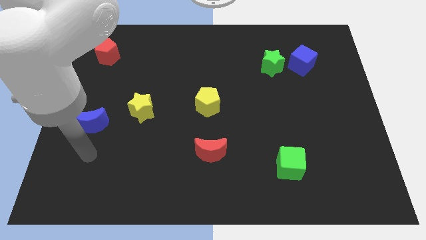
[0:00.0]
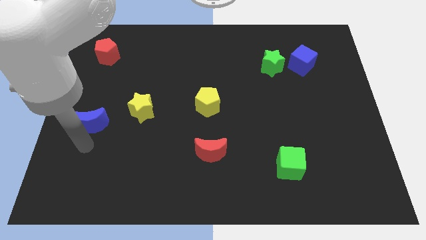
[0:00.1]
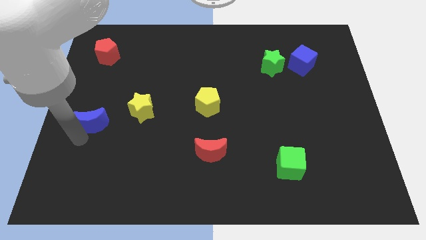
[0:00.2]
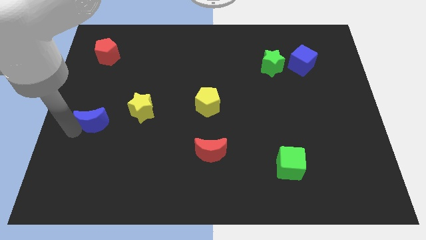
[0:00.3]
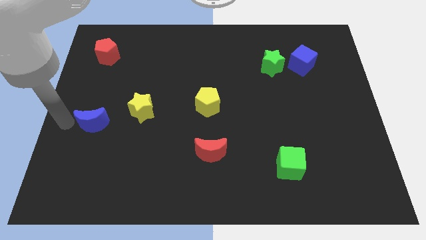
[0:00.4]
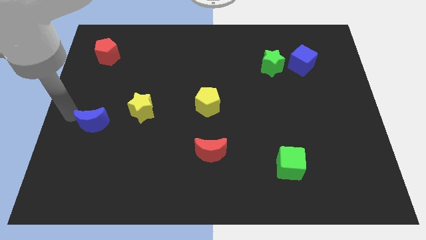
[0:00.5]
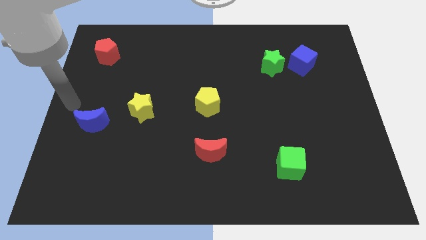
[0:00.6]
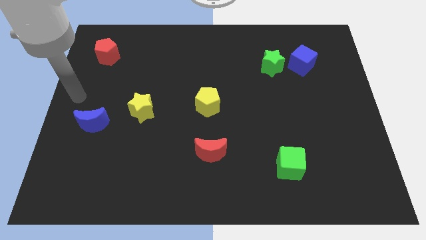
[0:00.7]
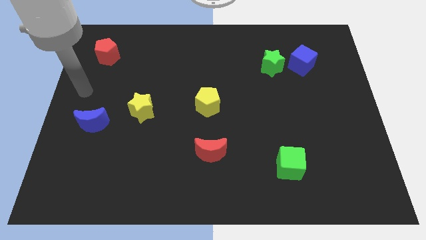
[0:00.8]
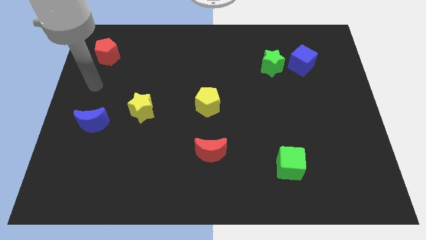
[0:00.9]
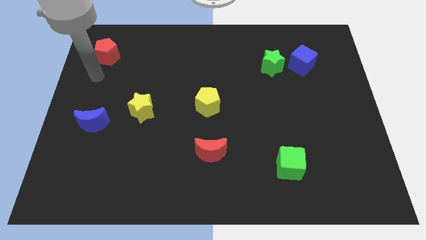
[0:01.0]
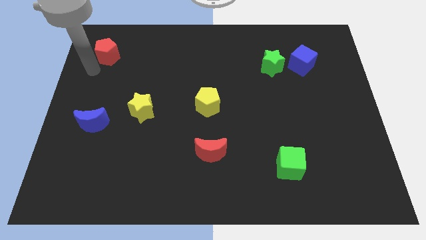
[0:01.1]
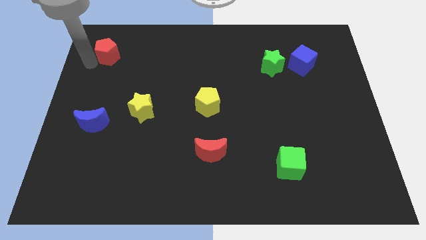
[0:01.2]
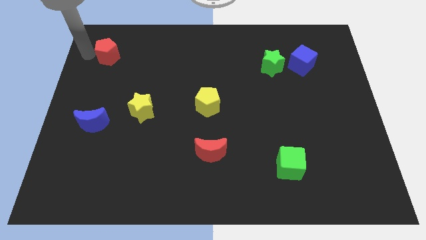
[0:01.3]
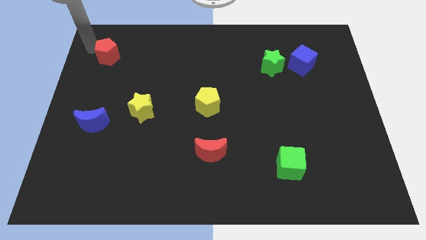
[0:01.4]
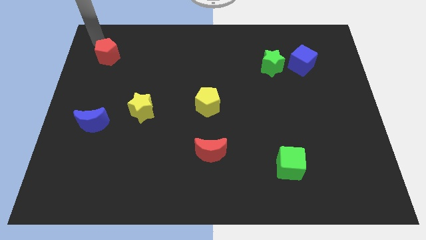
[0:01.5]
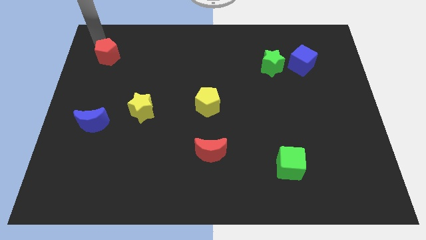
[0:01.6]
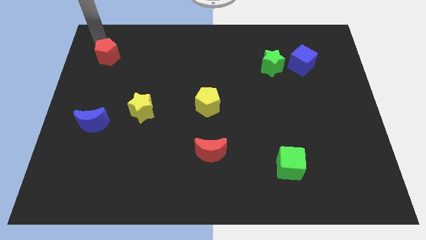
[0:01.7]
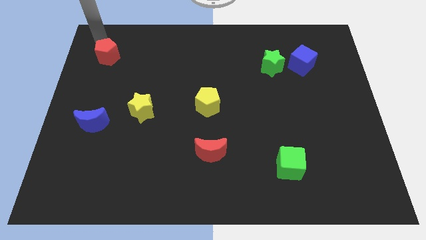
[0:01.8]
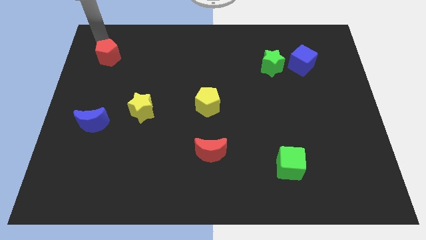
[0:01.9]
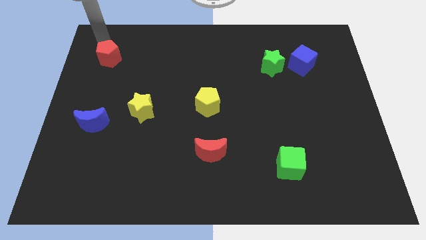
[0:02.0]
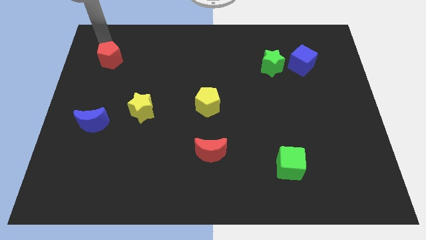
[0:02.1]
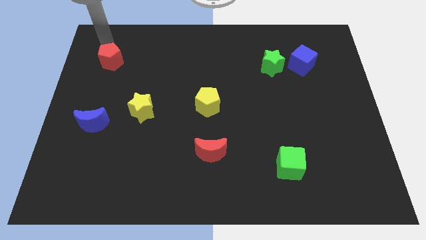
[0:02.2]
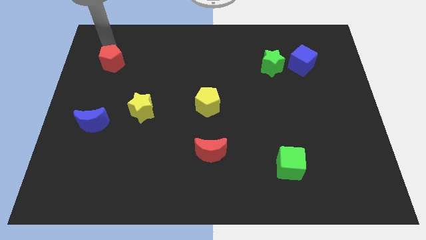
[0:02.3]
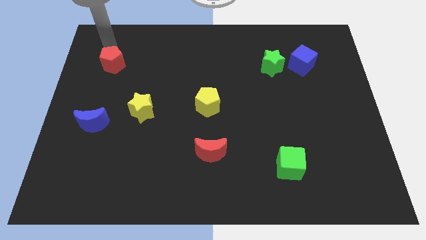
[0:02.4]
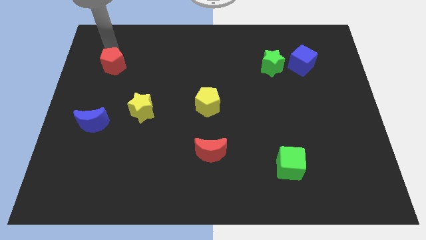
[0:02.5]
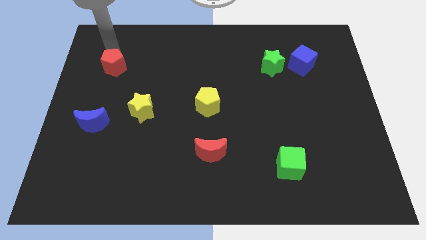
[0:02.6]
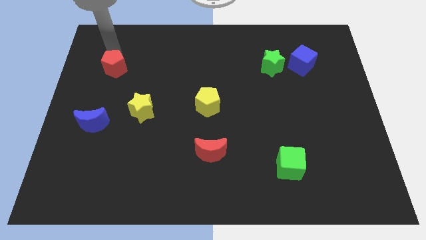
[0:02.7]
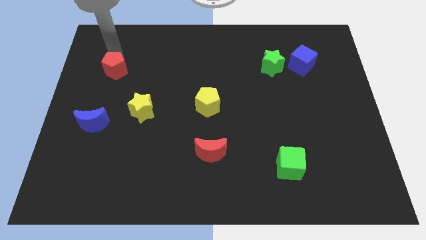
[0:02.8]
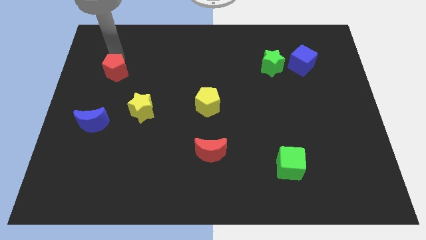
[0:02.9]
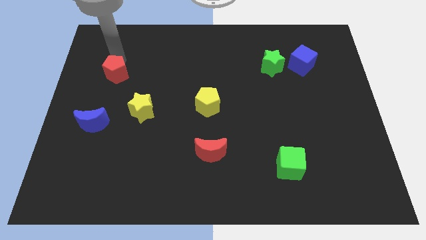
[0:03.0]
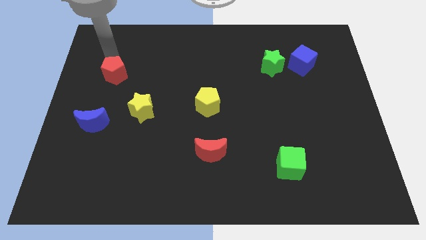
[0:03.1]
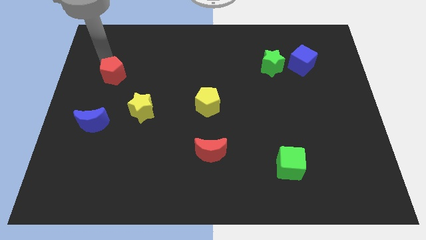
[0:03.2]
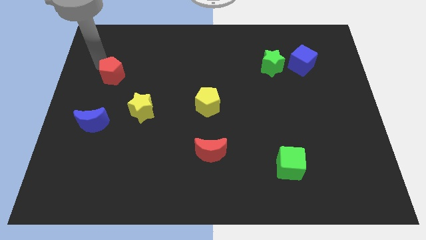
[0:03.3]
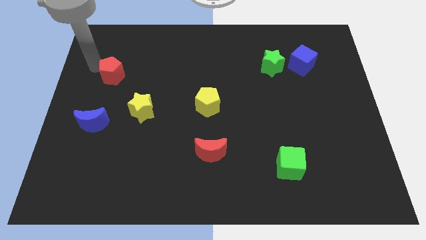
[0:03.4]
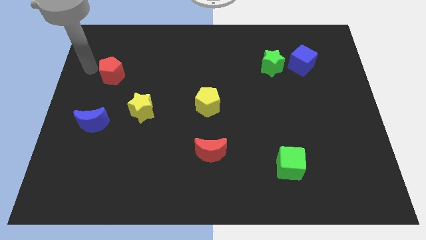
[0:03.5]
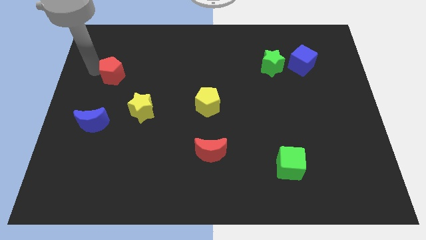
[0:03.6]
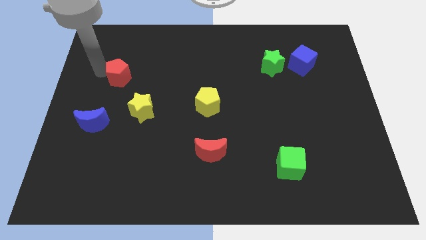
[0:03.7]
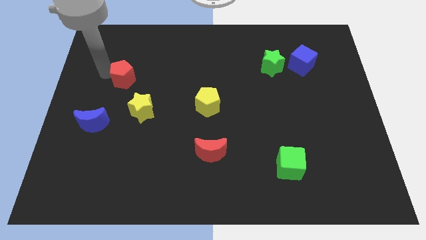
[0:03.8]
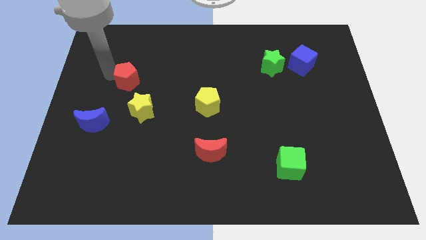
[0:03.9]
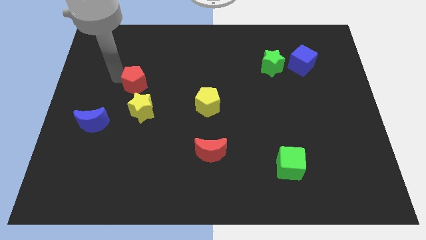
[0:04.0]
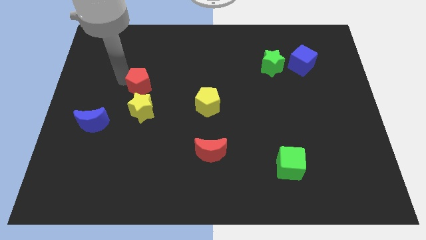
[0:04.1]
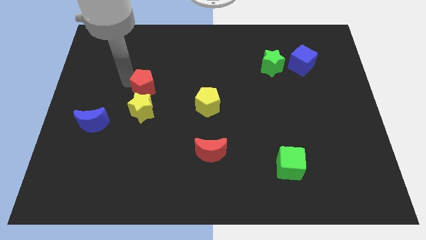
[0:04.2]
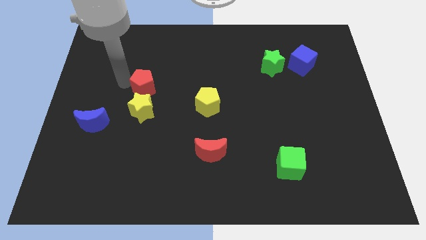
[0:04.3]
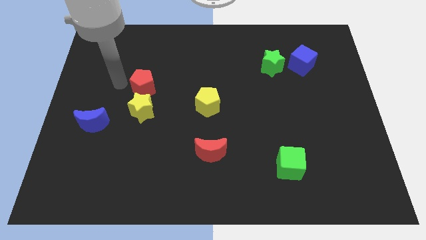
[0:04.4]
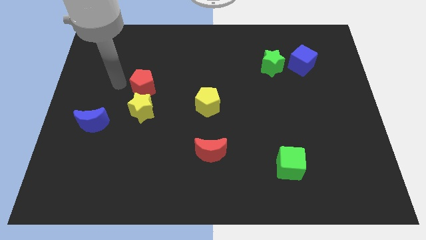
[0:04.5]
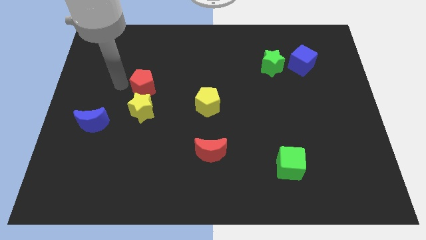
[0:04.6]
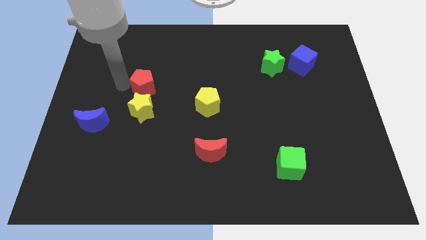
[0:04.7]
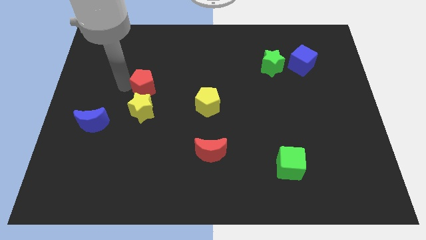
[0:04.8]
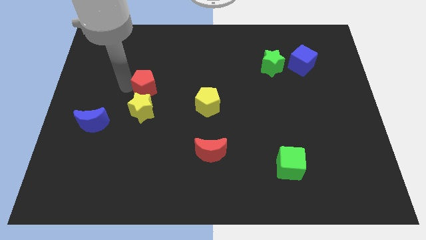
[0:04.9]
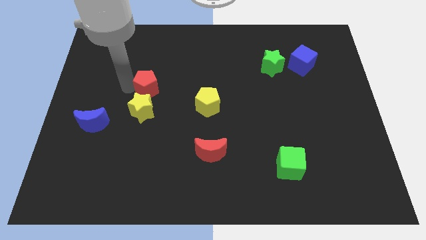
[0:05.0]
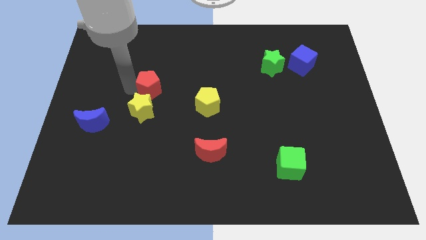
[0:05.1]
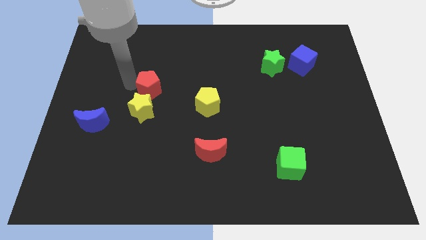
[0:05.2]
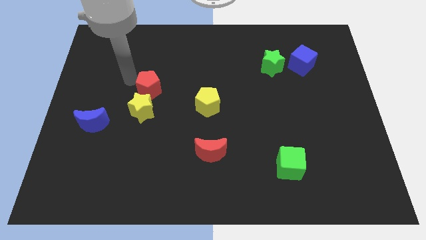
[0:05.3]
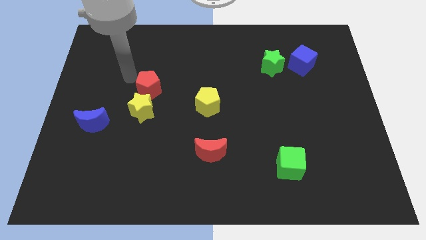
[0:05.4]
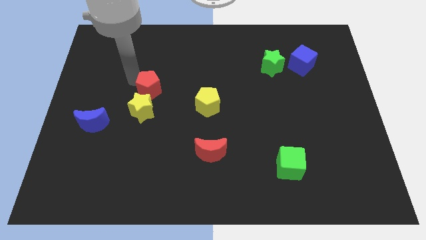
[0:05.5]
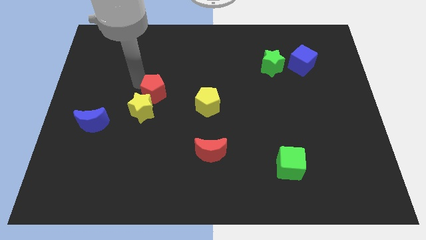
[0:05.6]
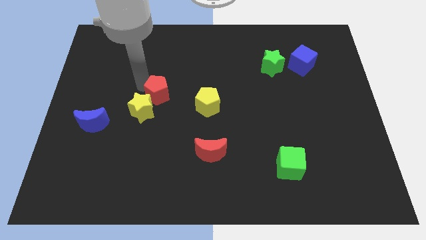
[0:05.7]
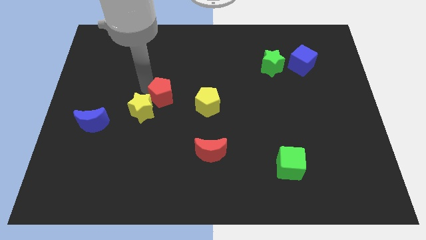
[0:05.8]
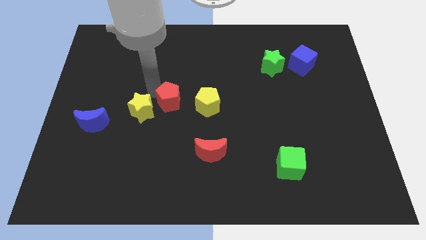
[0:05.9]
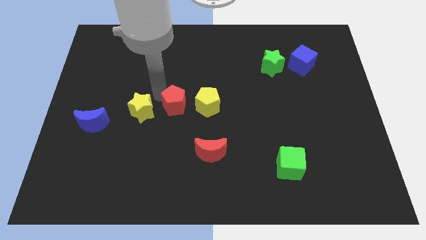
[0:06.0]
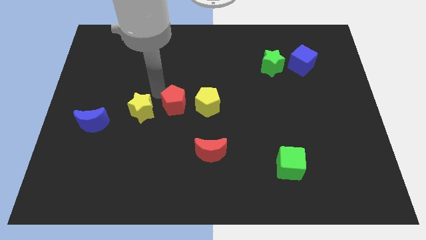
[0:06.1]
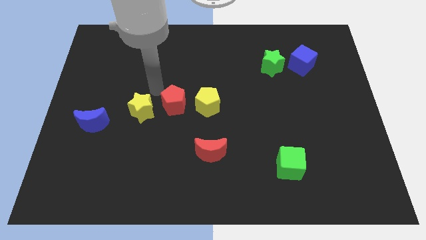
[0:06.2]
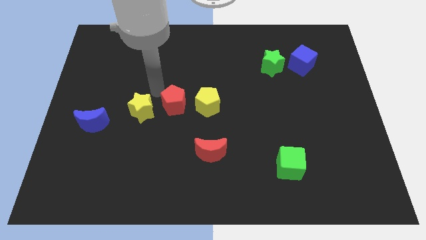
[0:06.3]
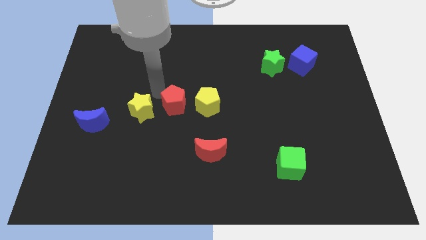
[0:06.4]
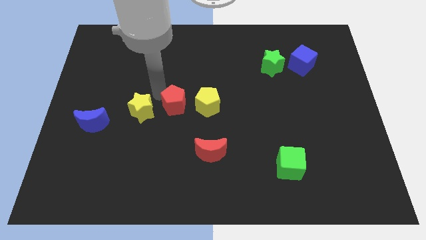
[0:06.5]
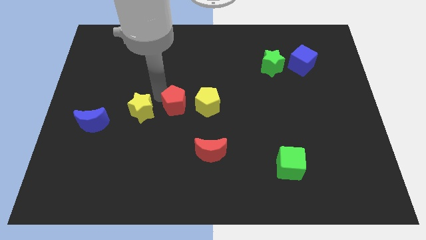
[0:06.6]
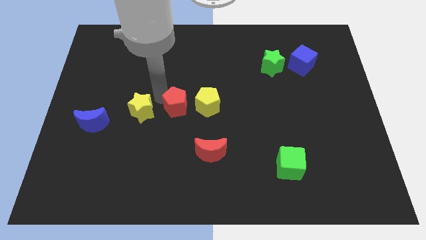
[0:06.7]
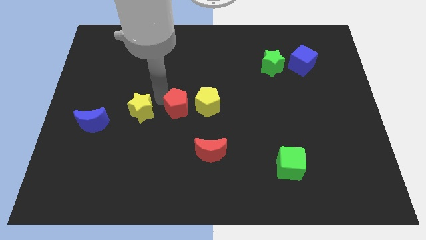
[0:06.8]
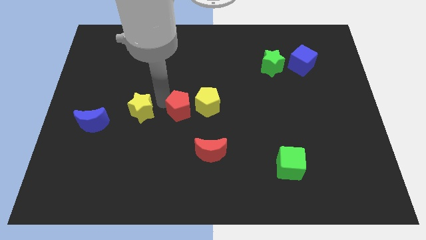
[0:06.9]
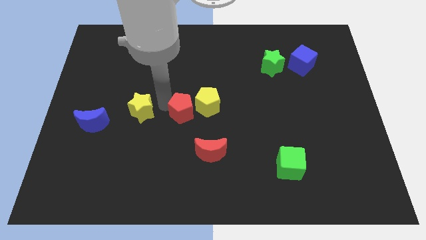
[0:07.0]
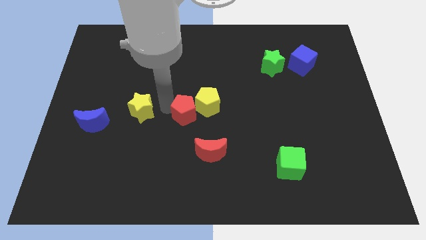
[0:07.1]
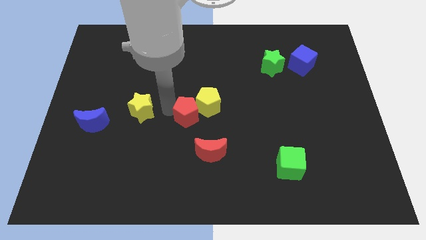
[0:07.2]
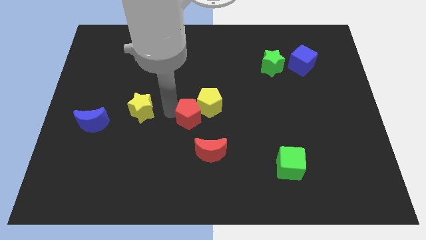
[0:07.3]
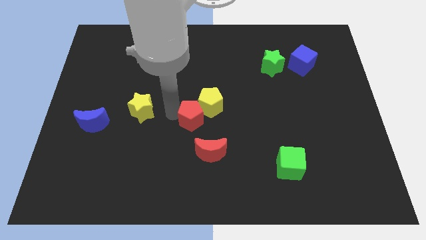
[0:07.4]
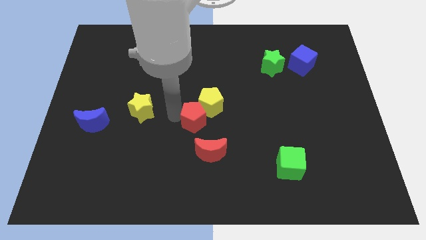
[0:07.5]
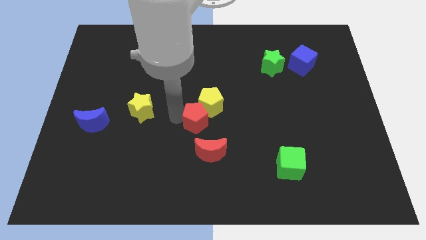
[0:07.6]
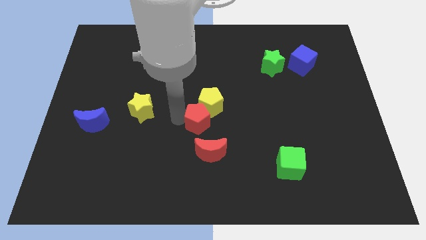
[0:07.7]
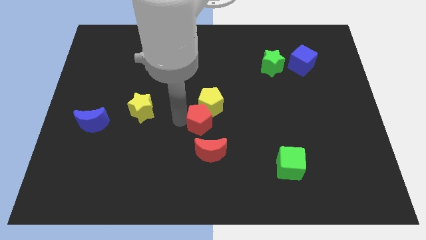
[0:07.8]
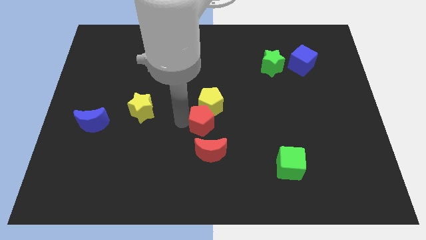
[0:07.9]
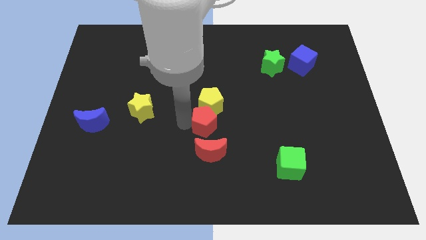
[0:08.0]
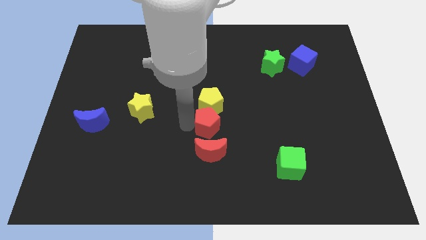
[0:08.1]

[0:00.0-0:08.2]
push the red pentagon diagonally down and to the right of the yellow pentagon
